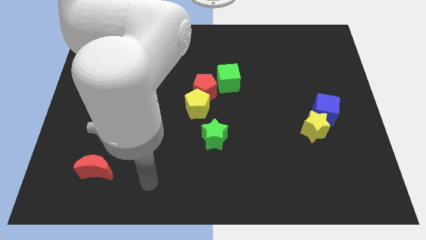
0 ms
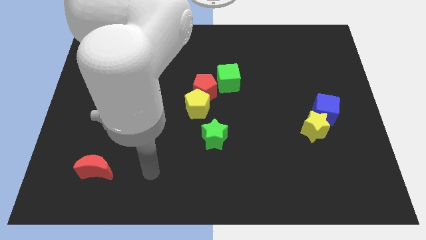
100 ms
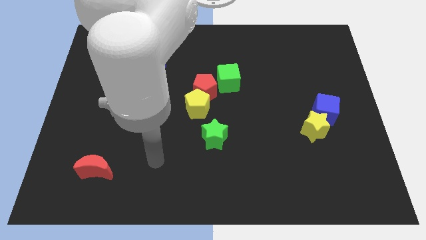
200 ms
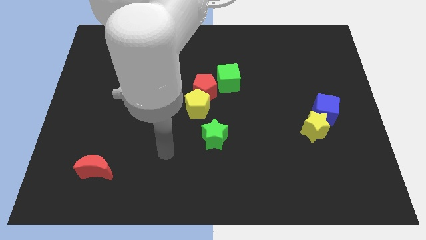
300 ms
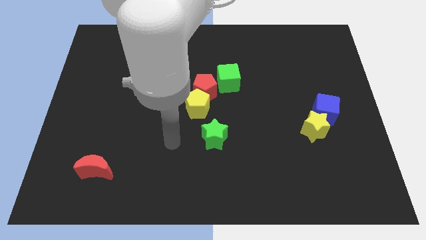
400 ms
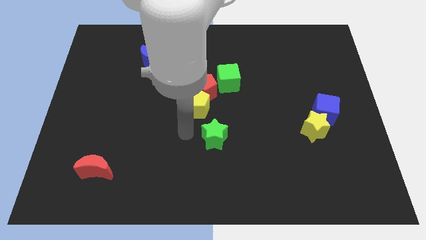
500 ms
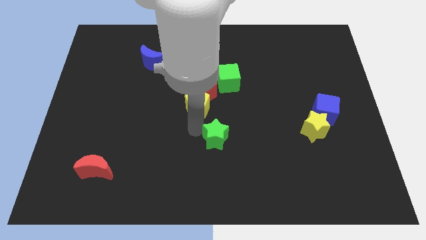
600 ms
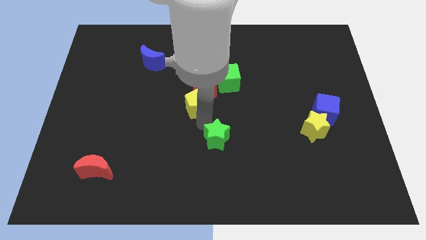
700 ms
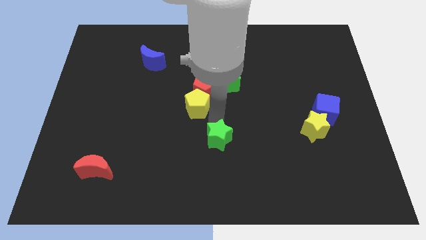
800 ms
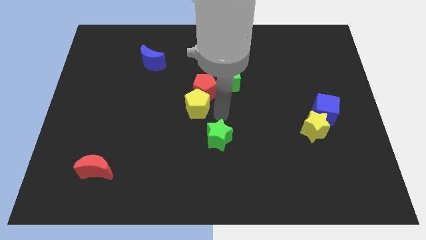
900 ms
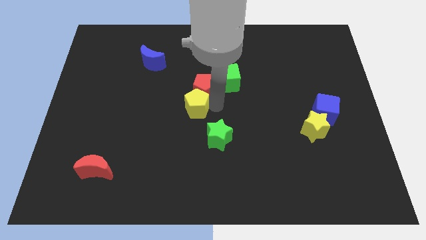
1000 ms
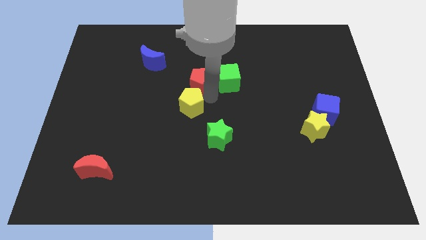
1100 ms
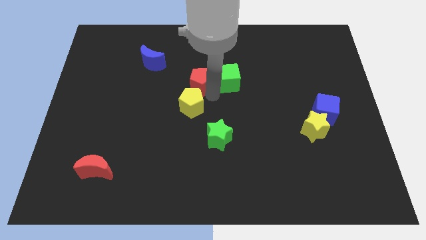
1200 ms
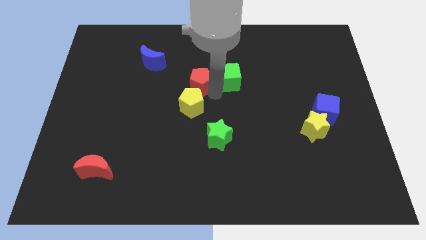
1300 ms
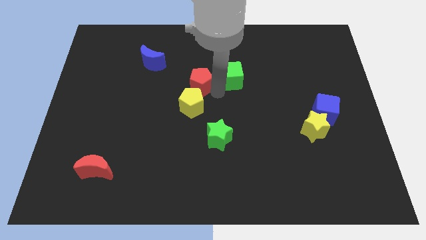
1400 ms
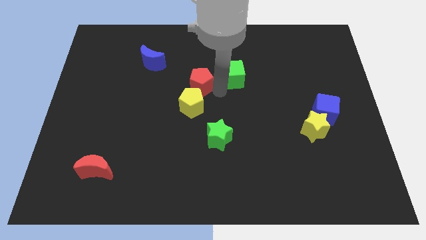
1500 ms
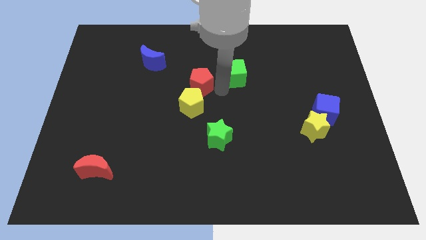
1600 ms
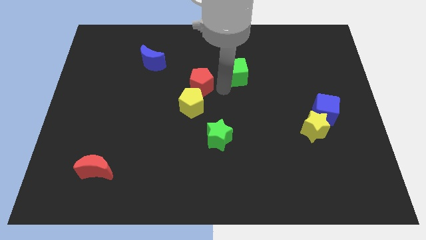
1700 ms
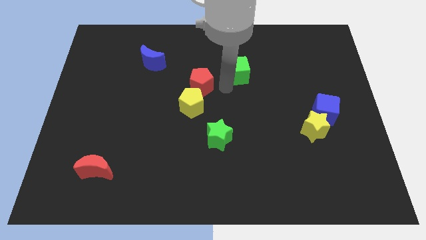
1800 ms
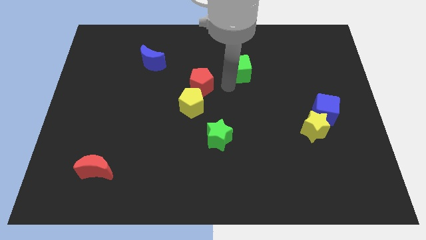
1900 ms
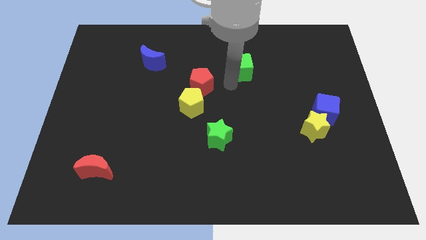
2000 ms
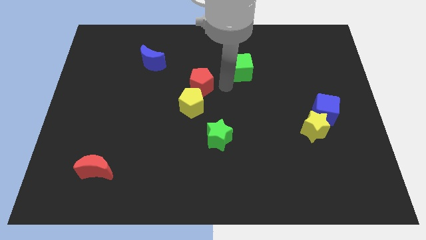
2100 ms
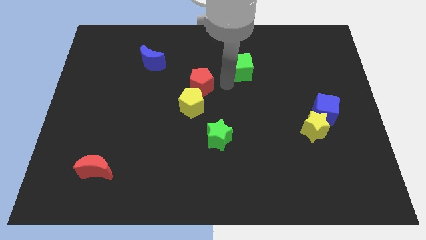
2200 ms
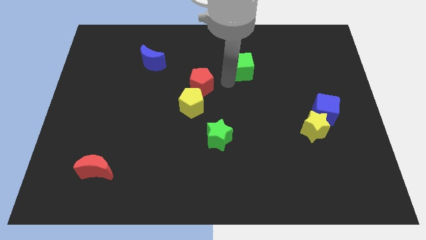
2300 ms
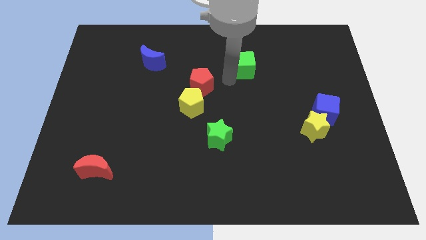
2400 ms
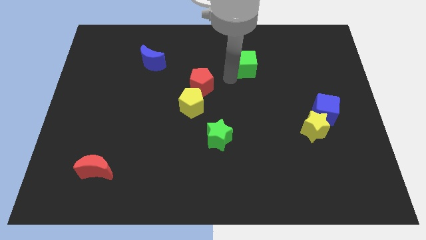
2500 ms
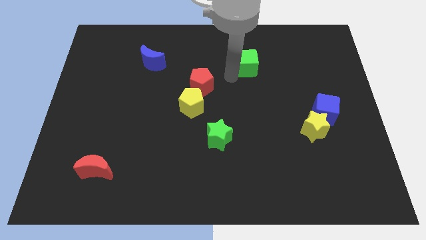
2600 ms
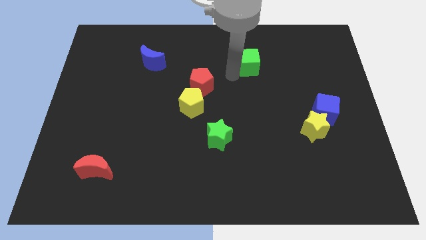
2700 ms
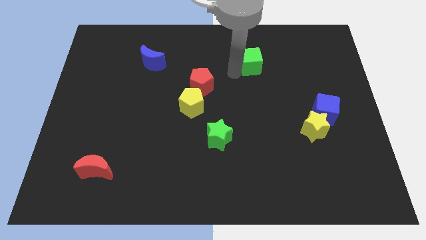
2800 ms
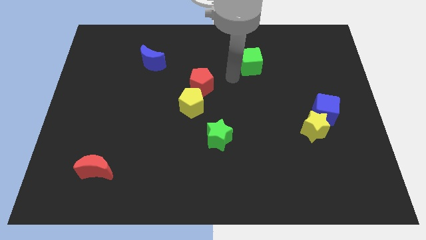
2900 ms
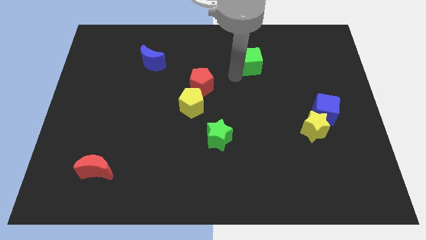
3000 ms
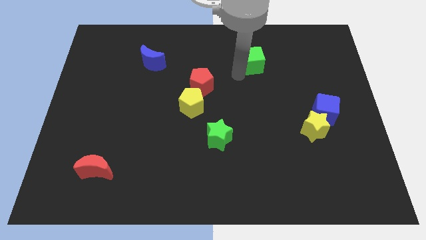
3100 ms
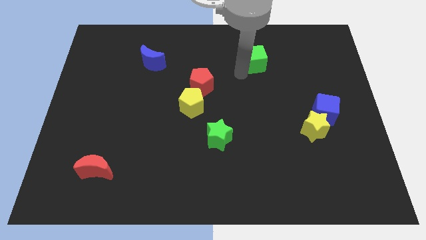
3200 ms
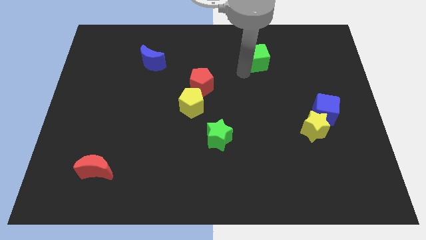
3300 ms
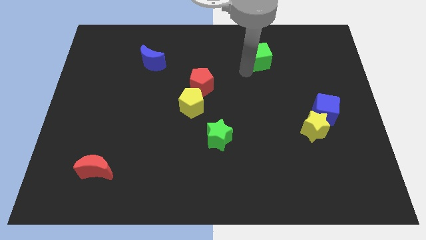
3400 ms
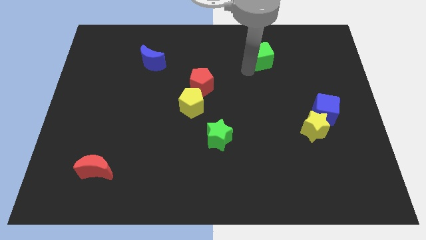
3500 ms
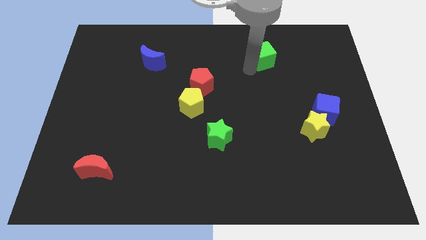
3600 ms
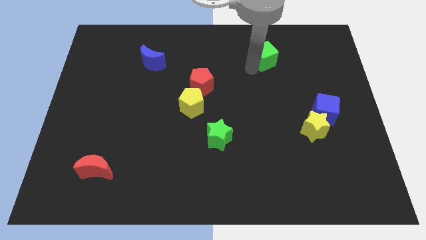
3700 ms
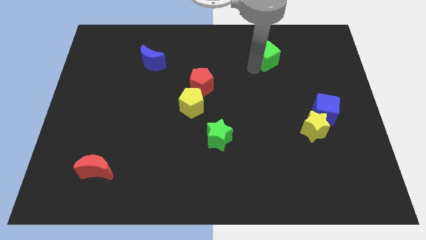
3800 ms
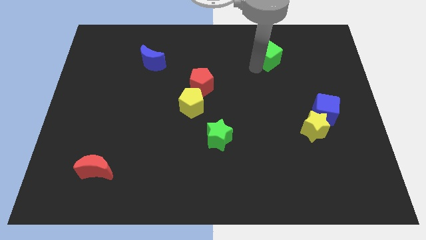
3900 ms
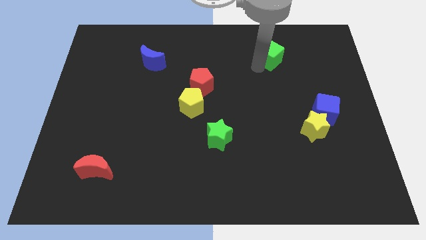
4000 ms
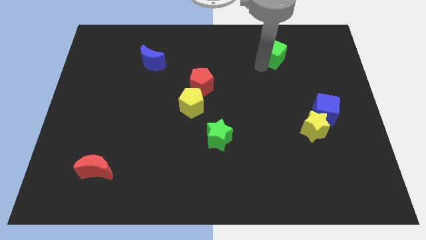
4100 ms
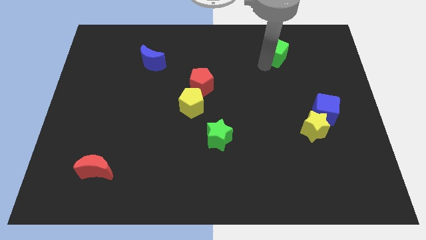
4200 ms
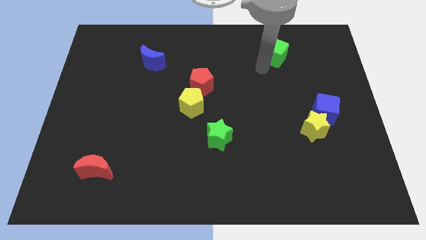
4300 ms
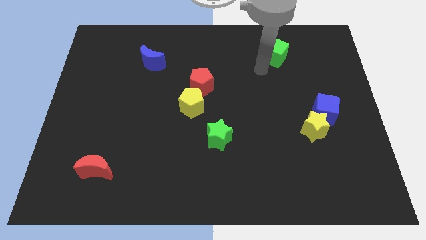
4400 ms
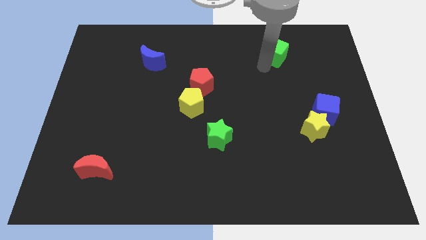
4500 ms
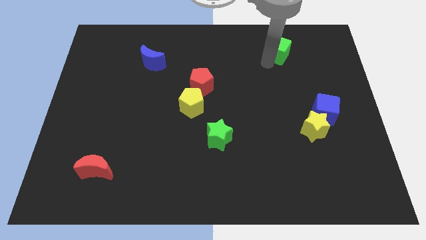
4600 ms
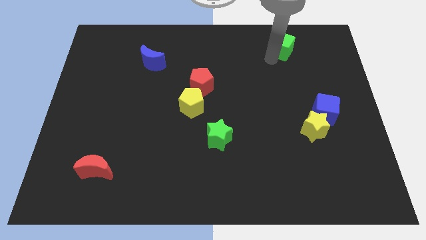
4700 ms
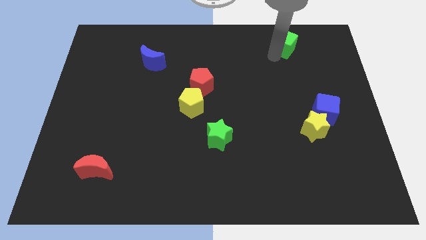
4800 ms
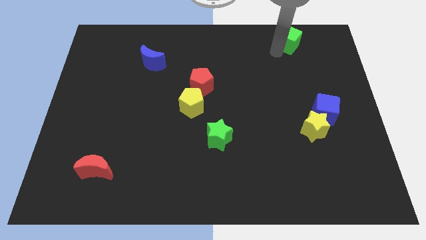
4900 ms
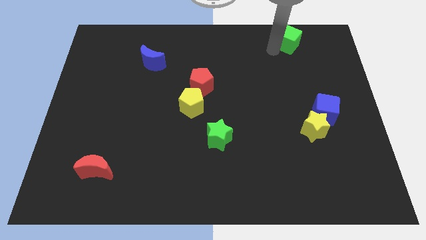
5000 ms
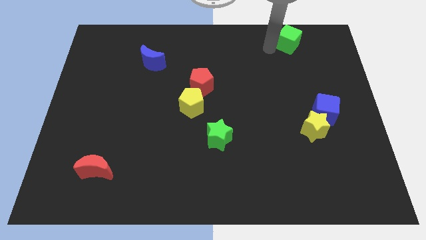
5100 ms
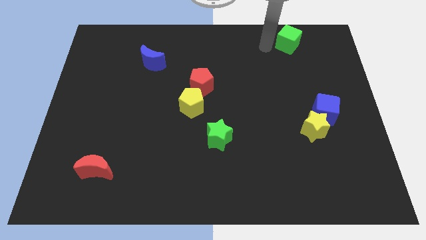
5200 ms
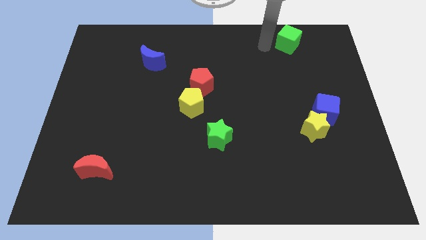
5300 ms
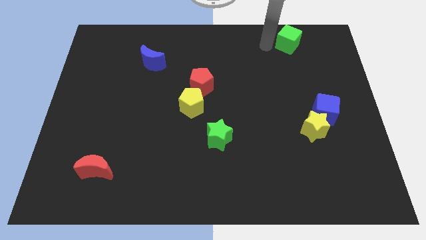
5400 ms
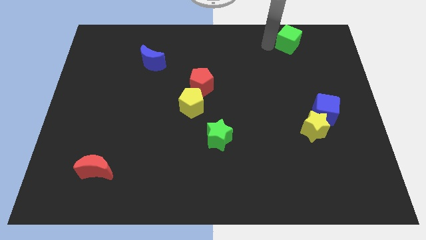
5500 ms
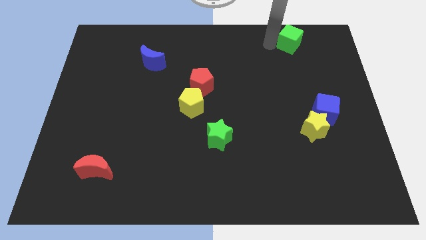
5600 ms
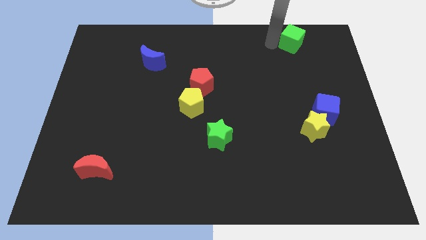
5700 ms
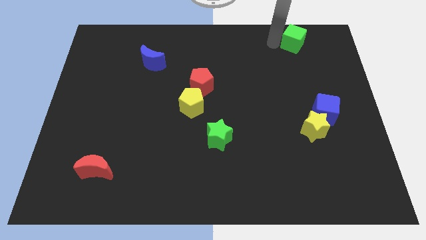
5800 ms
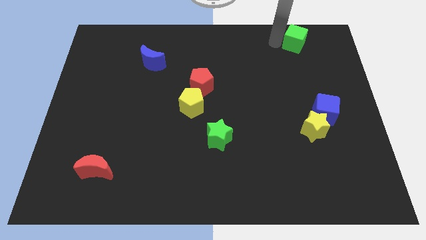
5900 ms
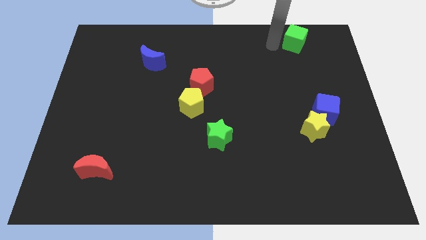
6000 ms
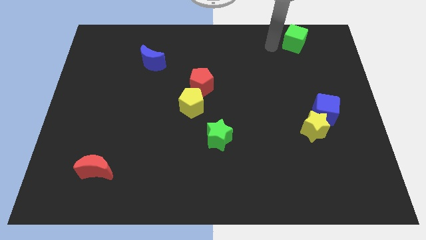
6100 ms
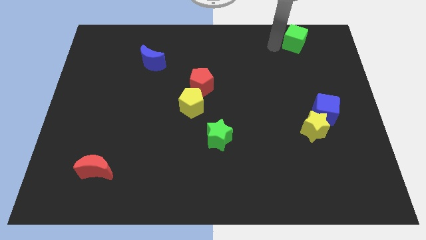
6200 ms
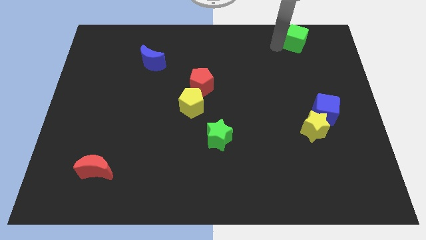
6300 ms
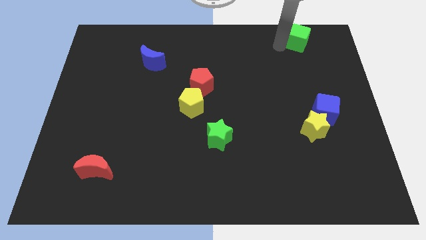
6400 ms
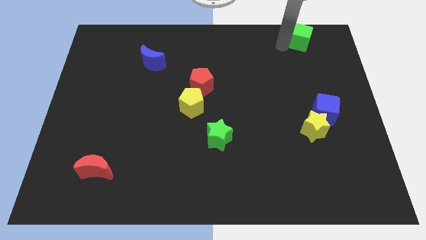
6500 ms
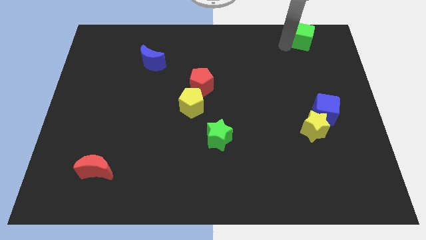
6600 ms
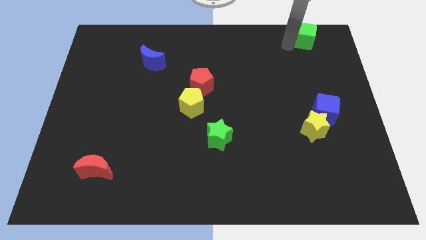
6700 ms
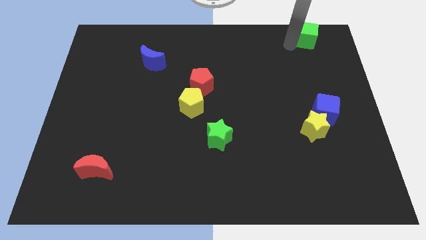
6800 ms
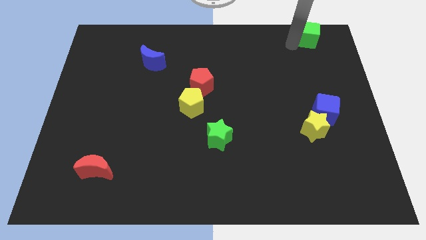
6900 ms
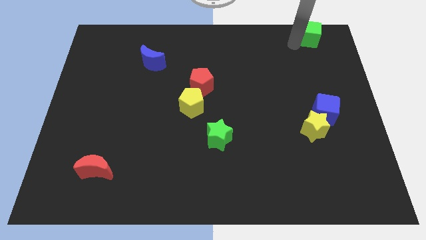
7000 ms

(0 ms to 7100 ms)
push the green cube to the upper right corner
